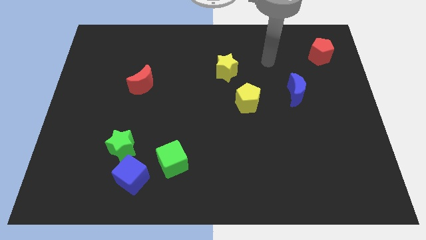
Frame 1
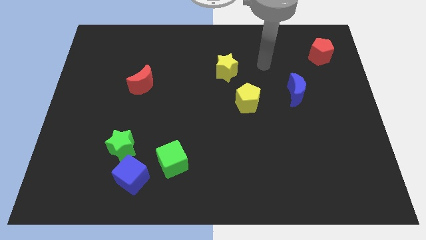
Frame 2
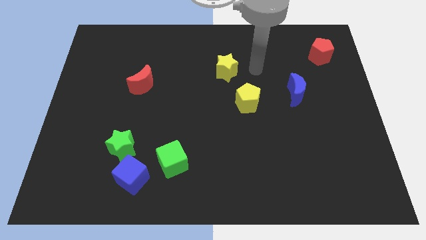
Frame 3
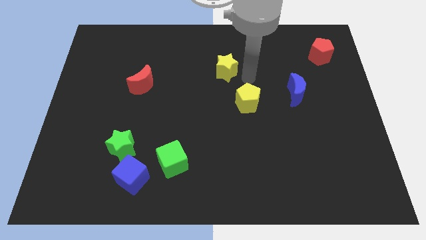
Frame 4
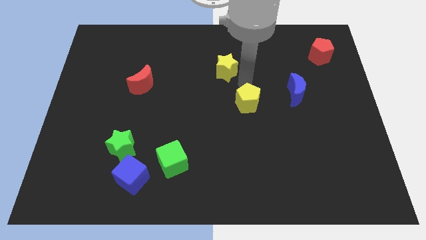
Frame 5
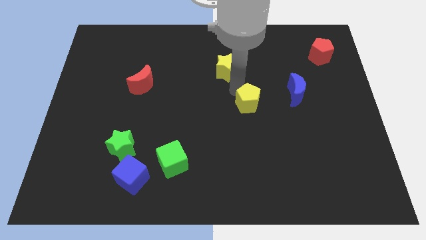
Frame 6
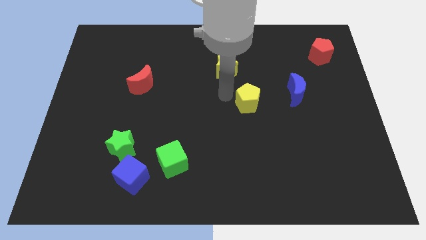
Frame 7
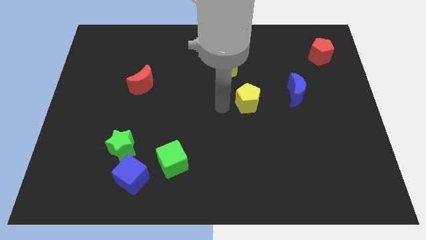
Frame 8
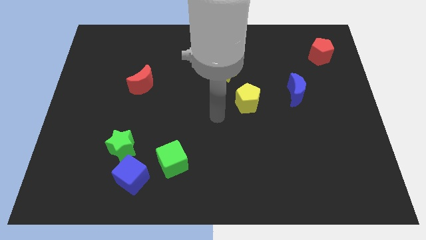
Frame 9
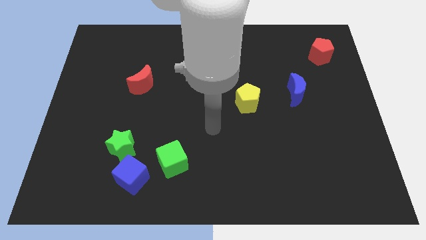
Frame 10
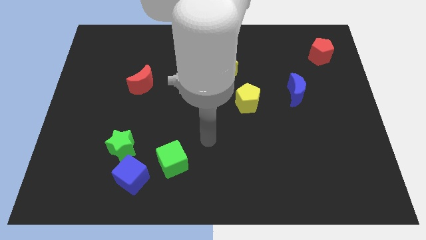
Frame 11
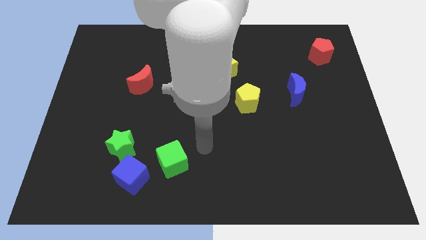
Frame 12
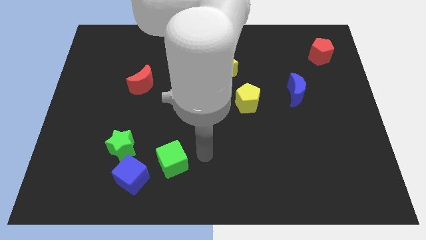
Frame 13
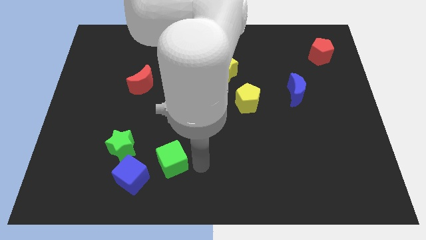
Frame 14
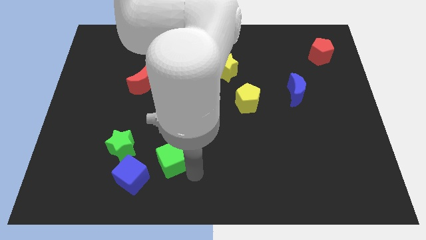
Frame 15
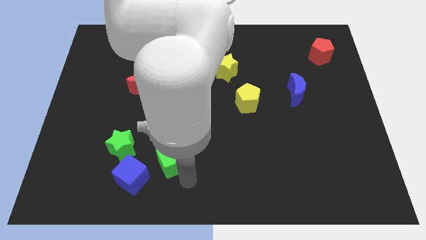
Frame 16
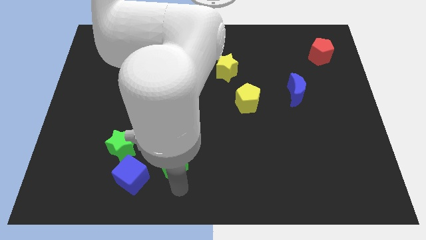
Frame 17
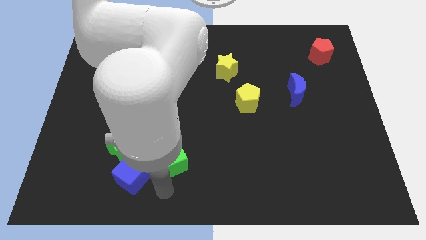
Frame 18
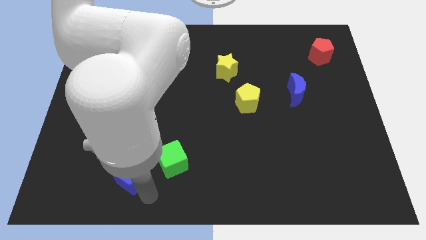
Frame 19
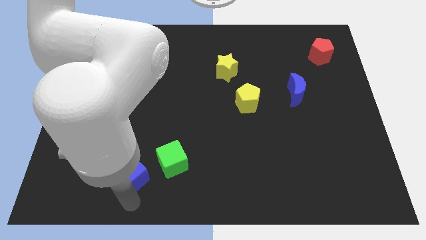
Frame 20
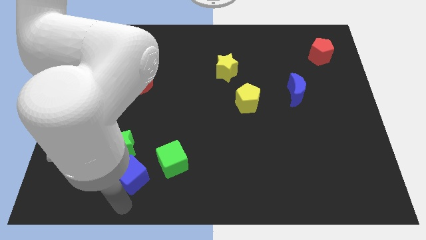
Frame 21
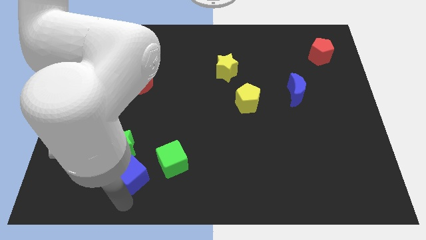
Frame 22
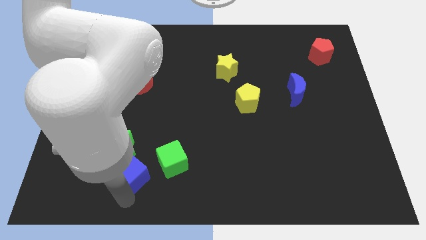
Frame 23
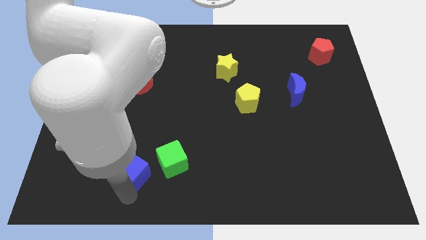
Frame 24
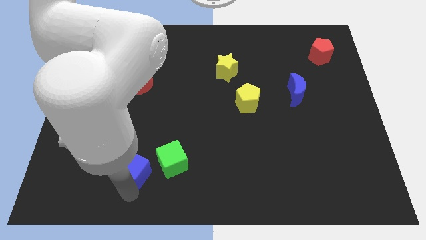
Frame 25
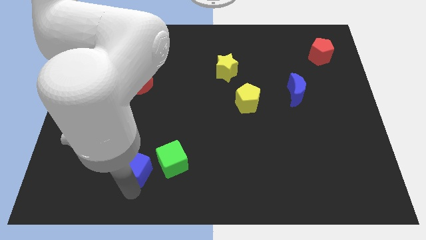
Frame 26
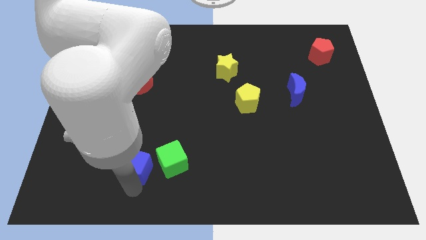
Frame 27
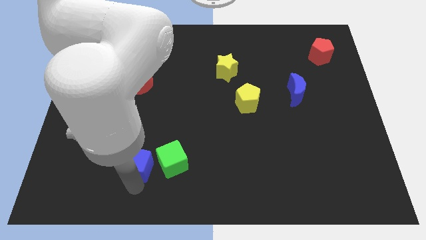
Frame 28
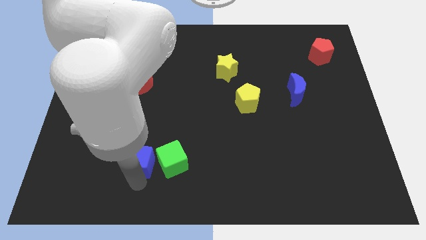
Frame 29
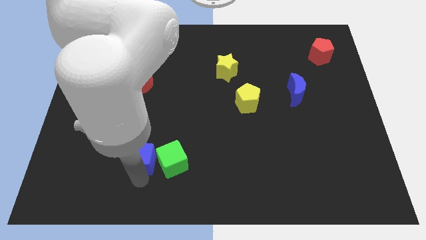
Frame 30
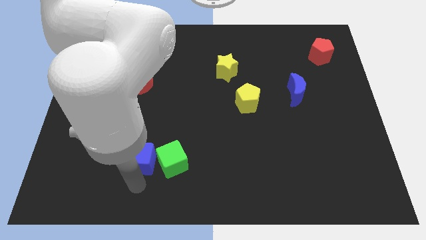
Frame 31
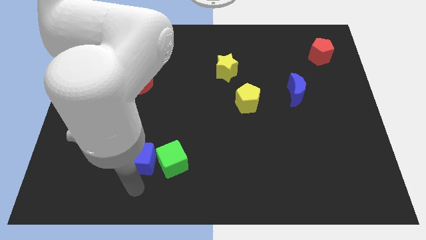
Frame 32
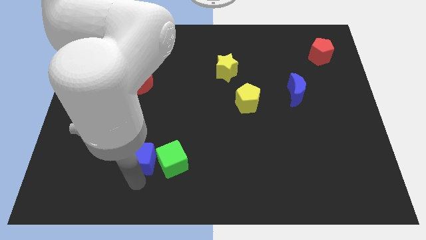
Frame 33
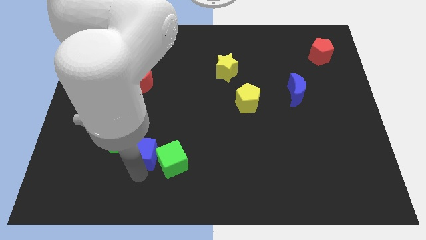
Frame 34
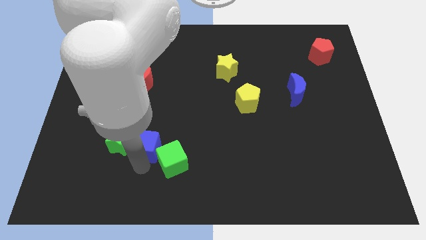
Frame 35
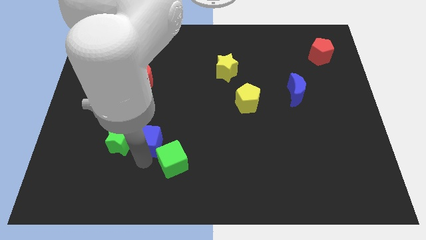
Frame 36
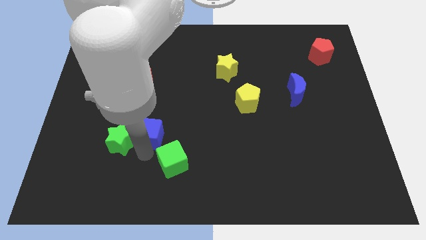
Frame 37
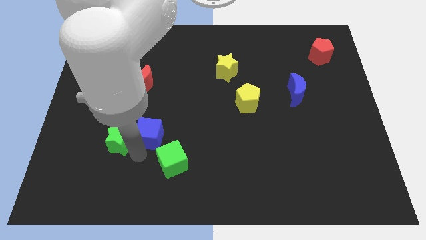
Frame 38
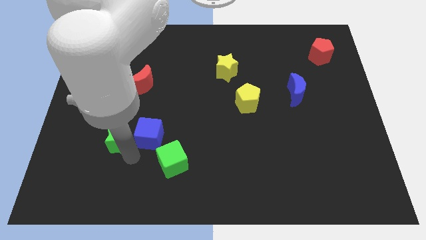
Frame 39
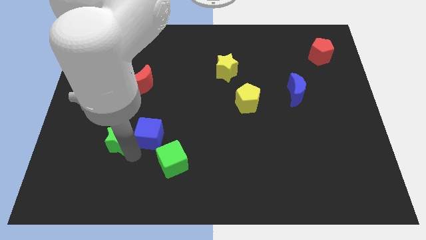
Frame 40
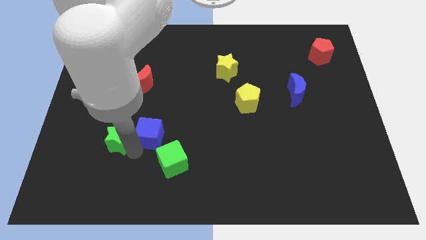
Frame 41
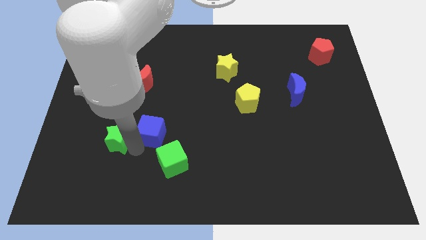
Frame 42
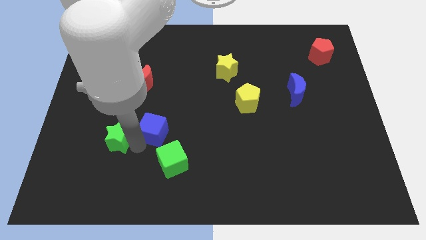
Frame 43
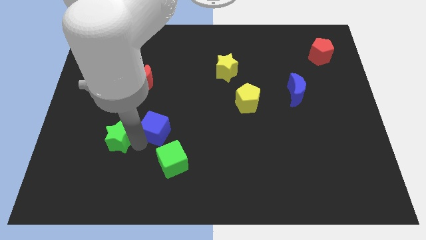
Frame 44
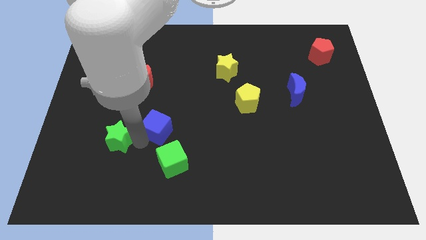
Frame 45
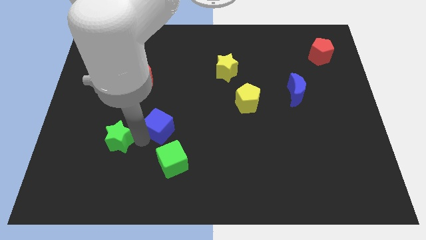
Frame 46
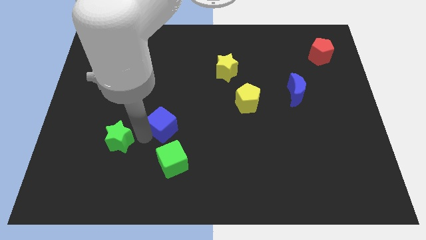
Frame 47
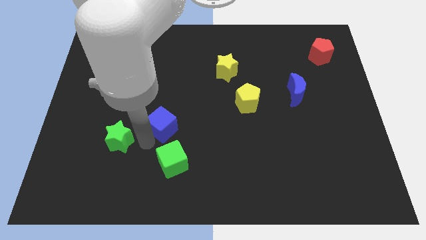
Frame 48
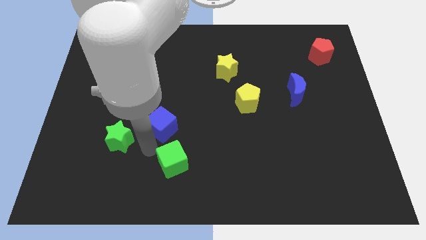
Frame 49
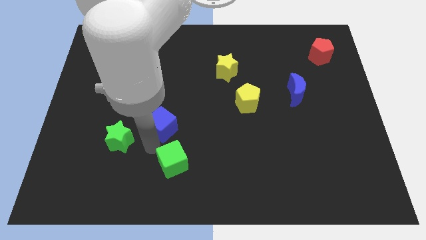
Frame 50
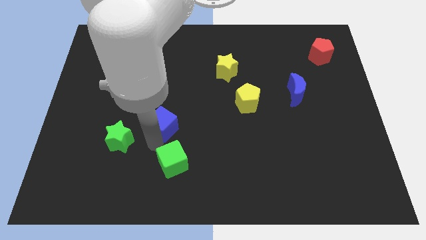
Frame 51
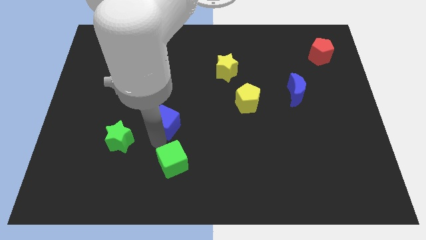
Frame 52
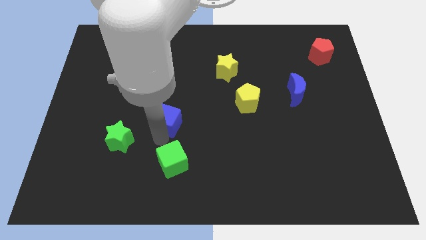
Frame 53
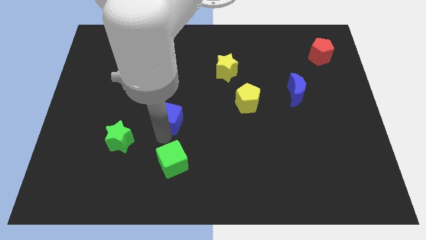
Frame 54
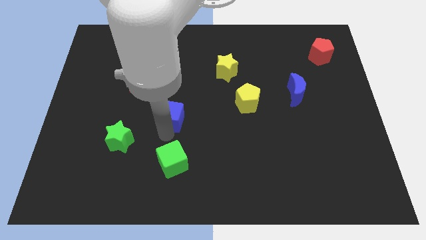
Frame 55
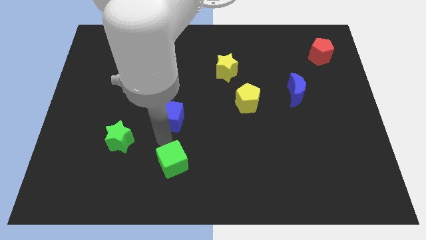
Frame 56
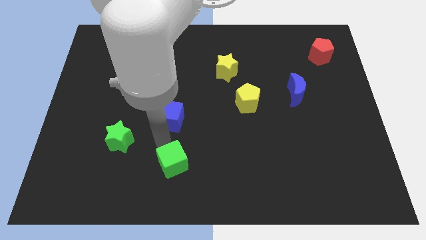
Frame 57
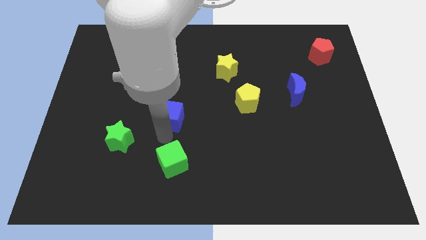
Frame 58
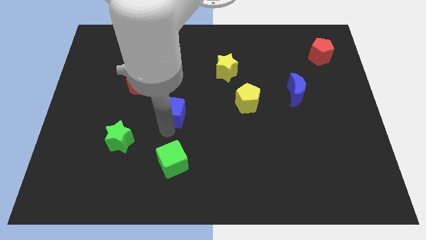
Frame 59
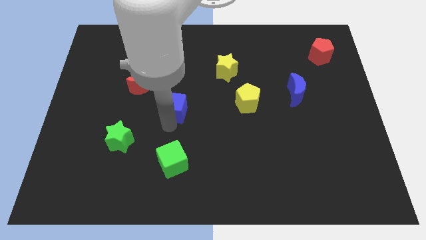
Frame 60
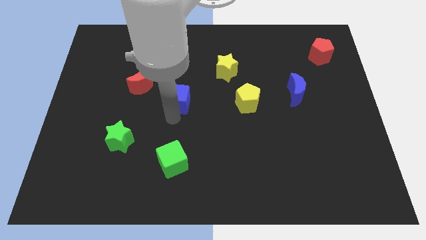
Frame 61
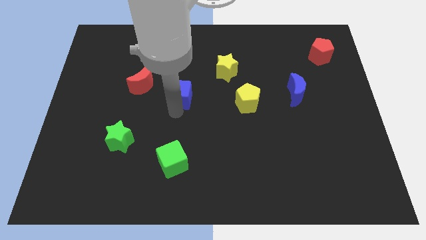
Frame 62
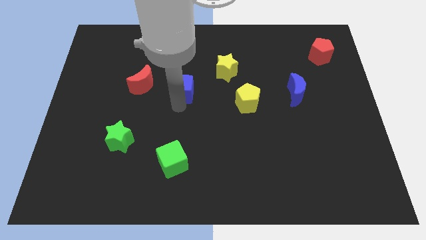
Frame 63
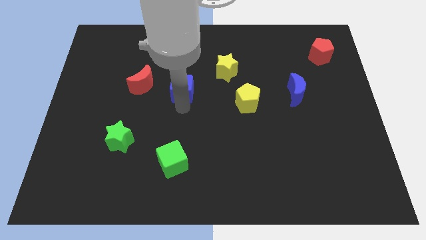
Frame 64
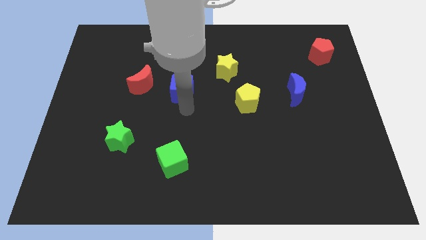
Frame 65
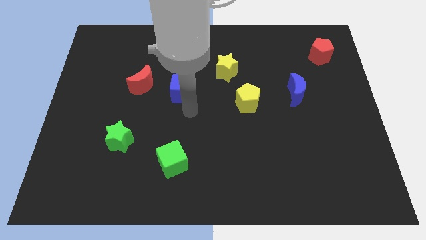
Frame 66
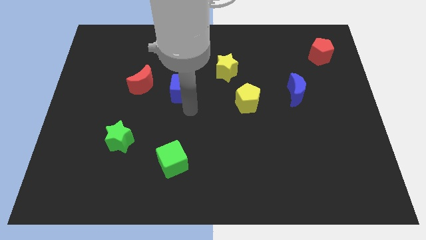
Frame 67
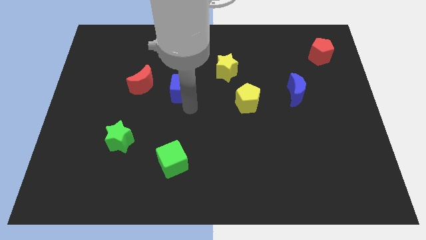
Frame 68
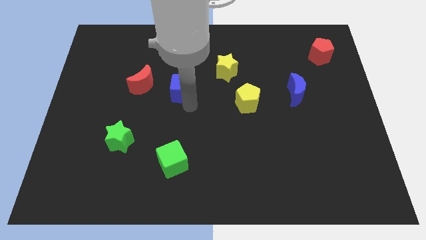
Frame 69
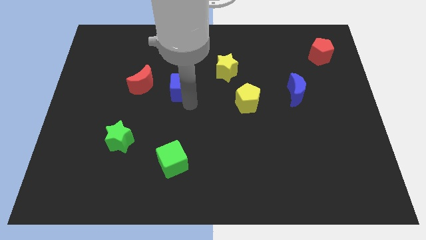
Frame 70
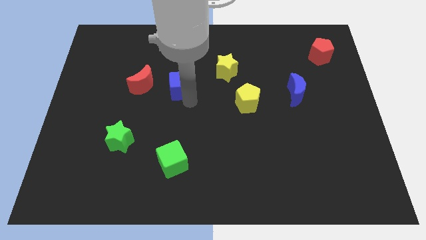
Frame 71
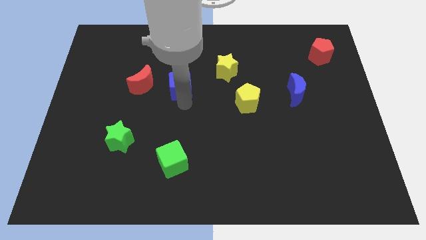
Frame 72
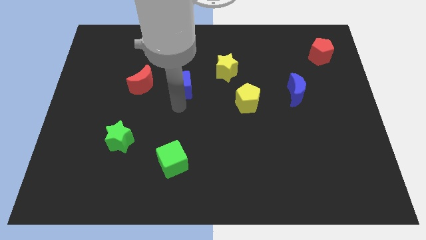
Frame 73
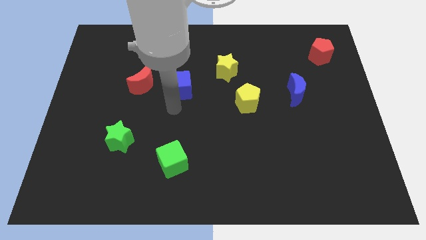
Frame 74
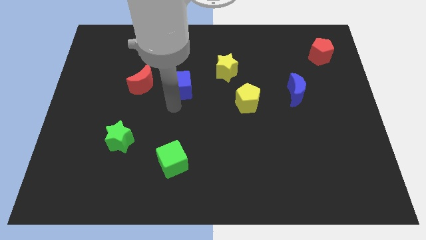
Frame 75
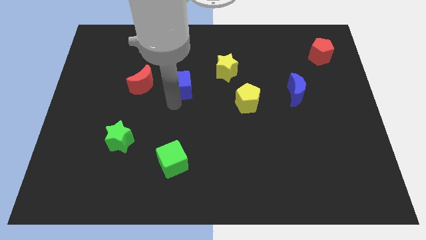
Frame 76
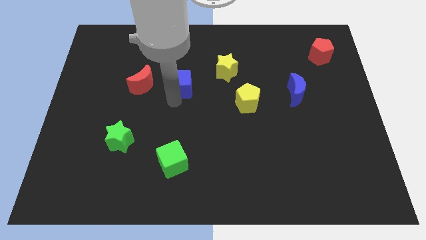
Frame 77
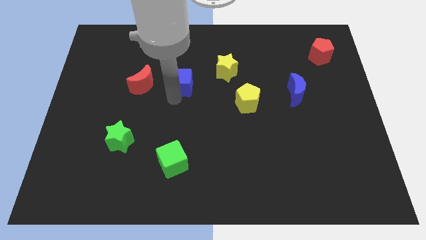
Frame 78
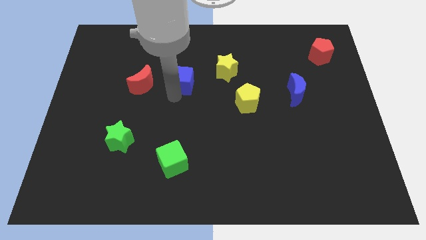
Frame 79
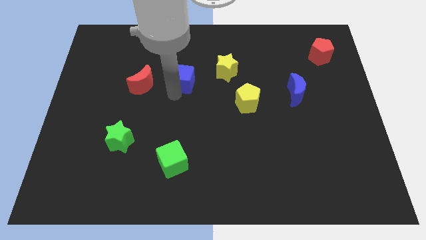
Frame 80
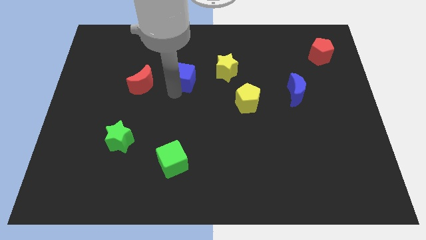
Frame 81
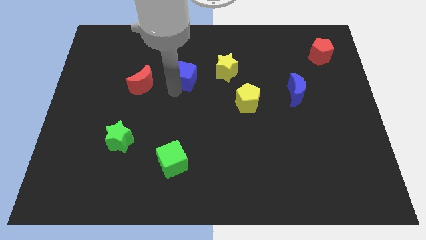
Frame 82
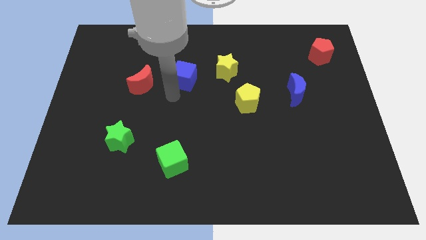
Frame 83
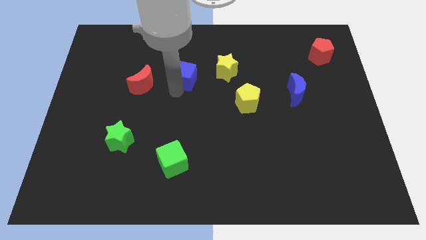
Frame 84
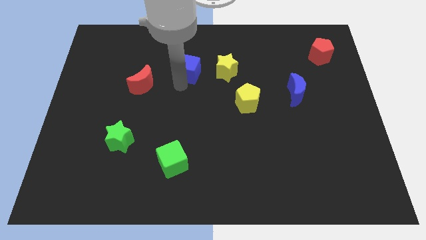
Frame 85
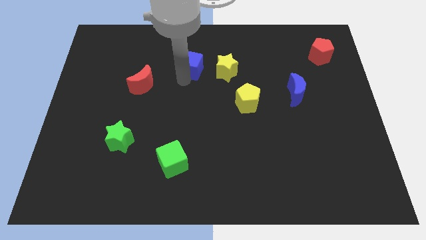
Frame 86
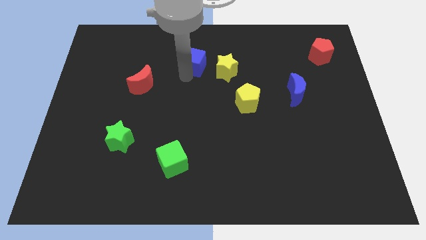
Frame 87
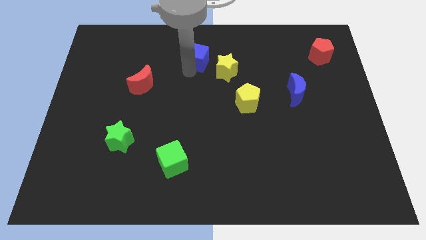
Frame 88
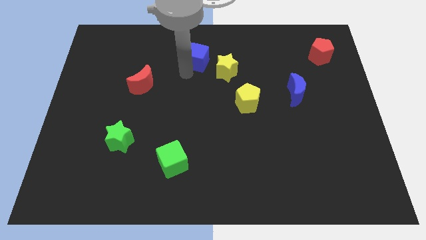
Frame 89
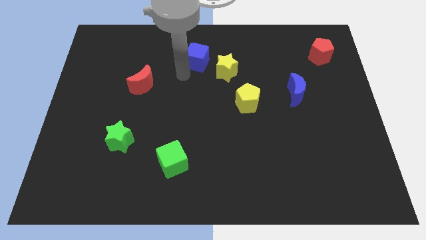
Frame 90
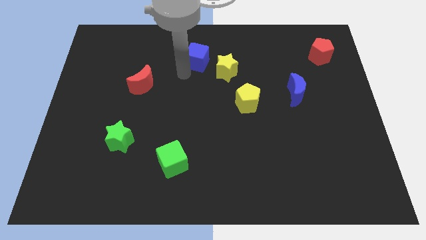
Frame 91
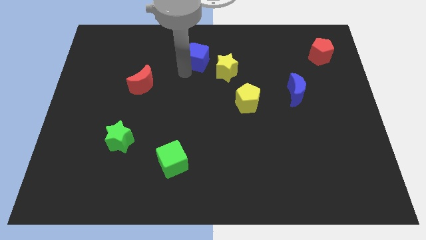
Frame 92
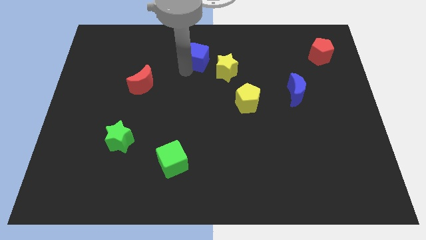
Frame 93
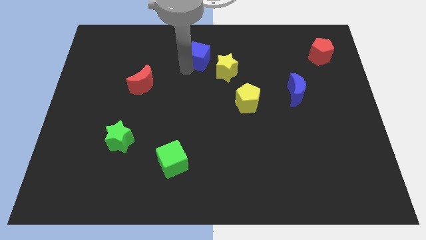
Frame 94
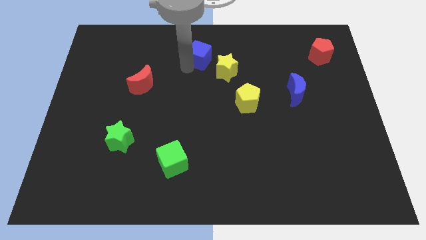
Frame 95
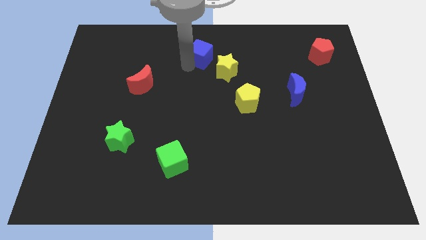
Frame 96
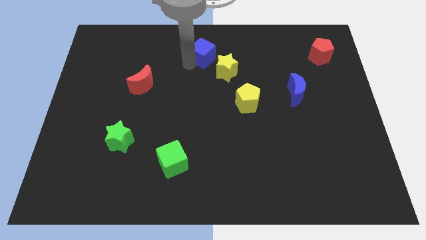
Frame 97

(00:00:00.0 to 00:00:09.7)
push the blue cube to the towards your base
